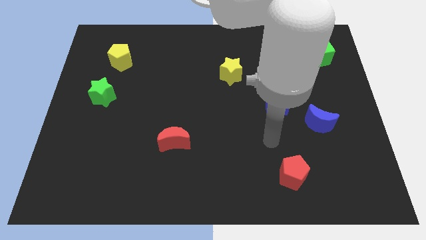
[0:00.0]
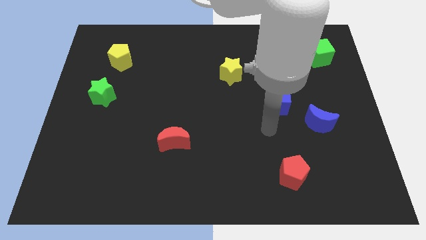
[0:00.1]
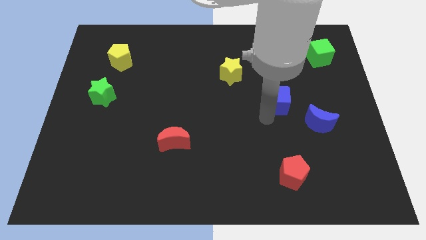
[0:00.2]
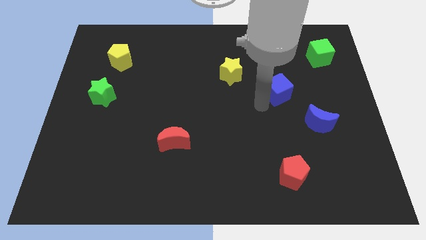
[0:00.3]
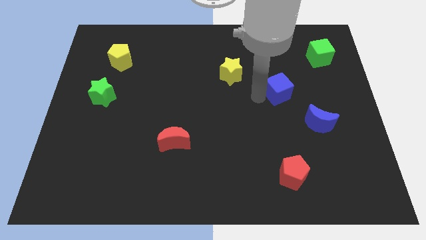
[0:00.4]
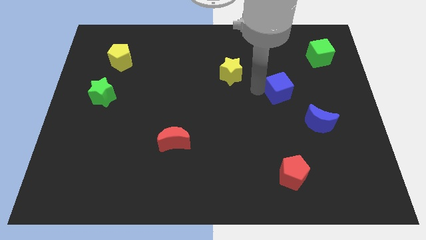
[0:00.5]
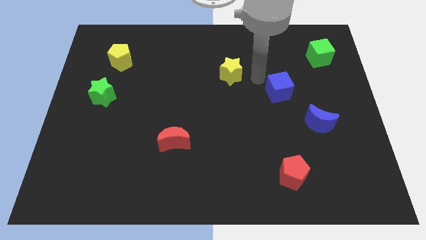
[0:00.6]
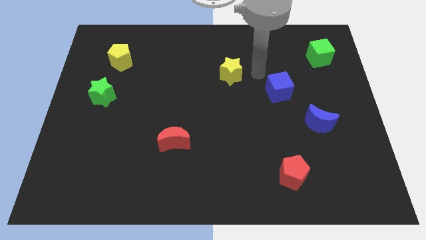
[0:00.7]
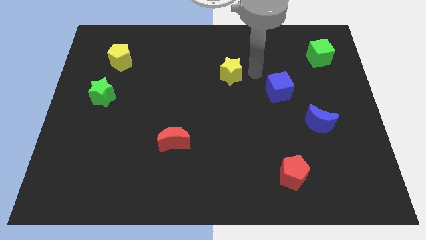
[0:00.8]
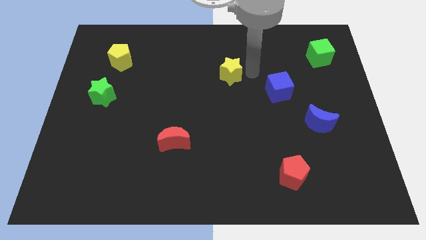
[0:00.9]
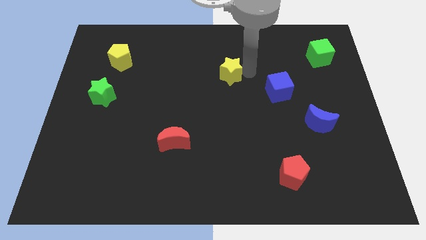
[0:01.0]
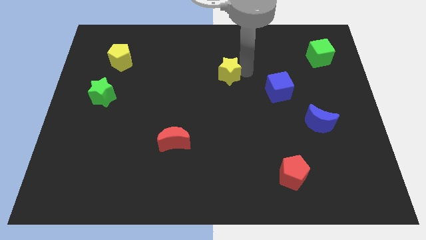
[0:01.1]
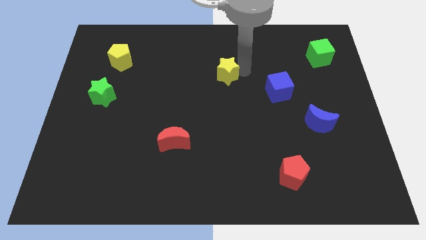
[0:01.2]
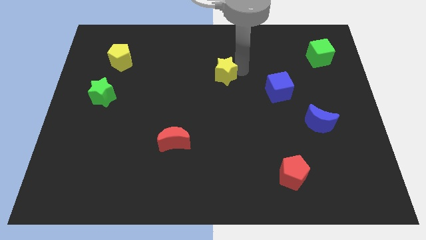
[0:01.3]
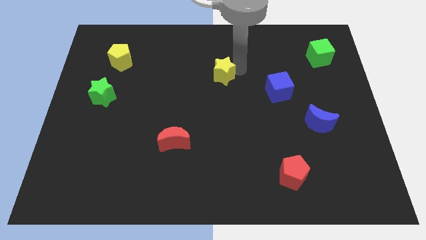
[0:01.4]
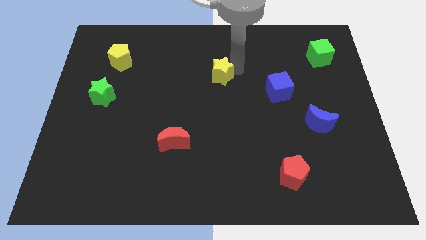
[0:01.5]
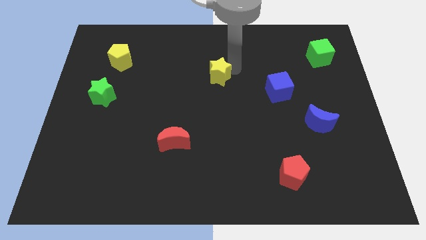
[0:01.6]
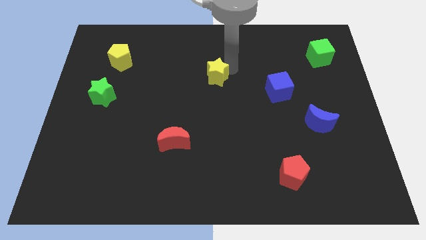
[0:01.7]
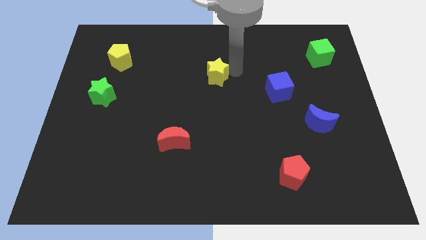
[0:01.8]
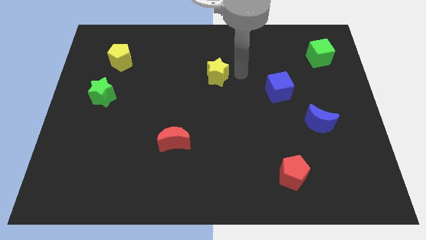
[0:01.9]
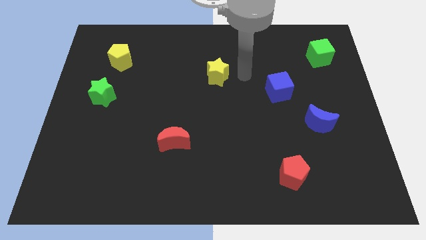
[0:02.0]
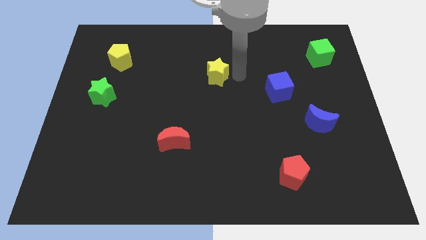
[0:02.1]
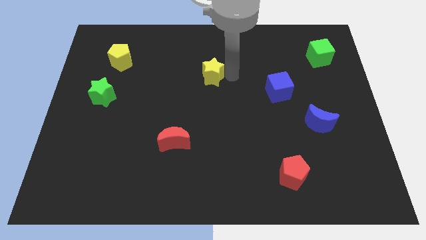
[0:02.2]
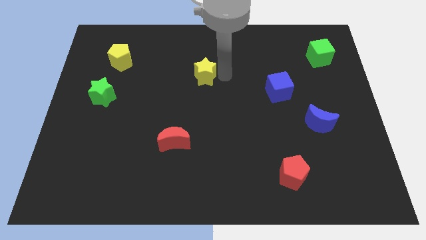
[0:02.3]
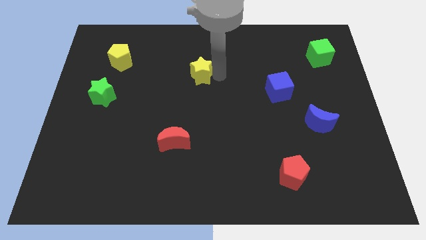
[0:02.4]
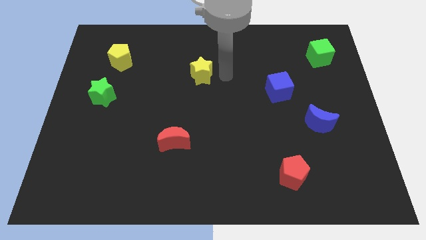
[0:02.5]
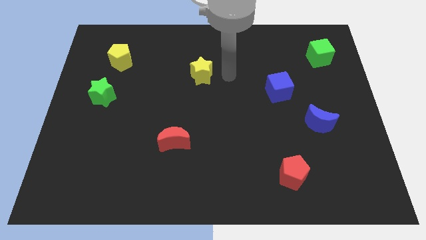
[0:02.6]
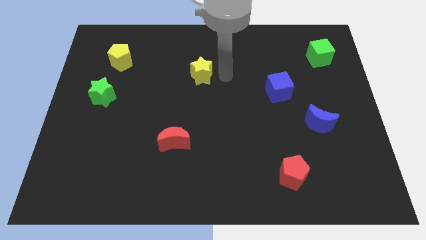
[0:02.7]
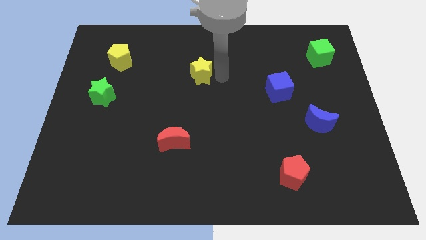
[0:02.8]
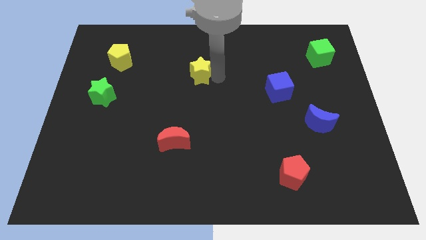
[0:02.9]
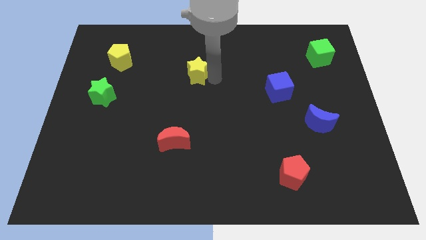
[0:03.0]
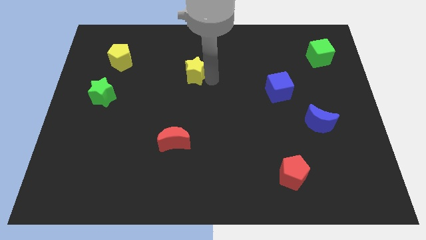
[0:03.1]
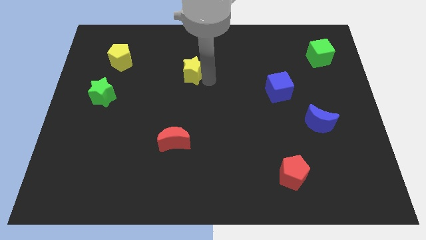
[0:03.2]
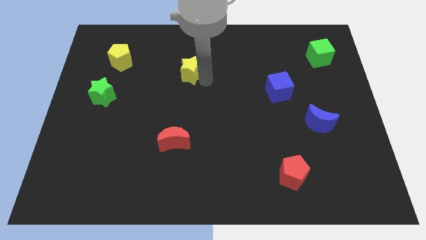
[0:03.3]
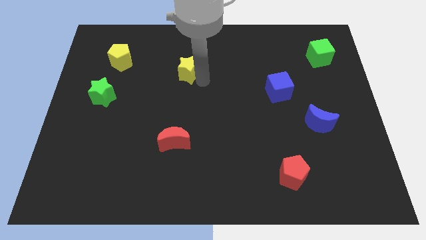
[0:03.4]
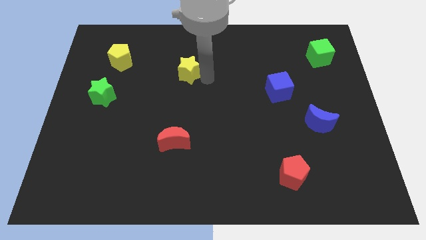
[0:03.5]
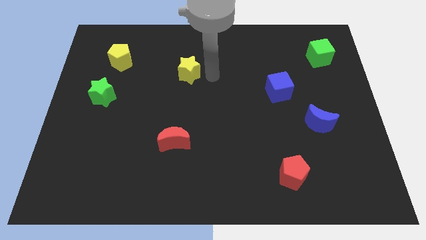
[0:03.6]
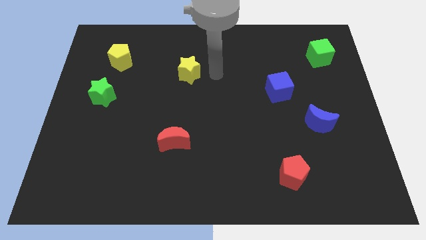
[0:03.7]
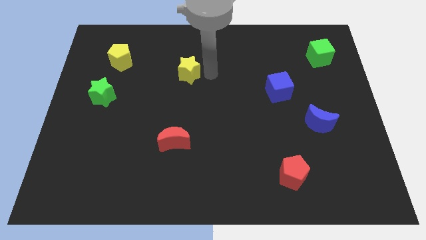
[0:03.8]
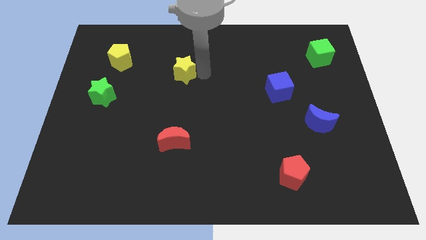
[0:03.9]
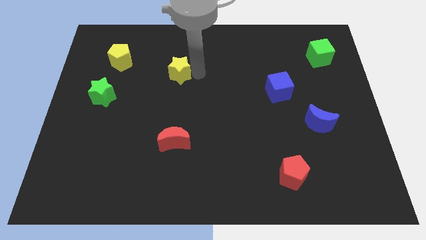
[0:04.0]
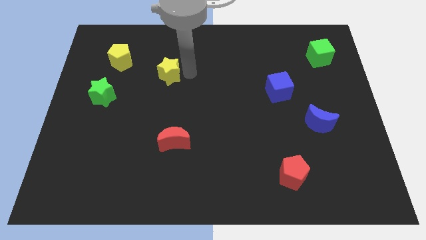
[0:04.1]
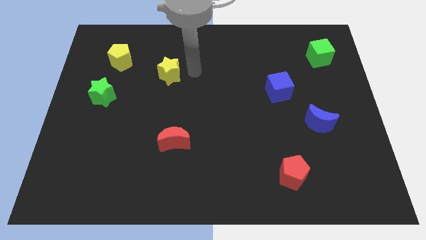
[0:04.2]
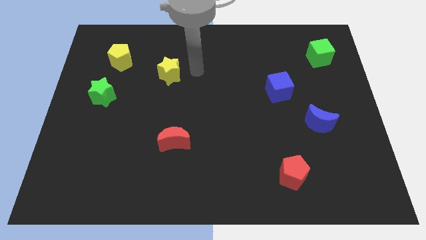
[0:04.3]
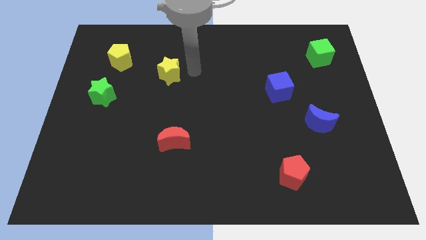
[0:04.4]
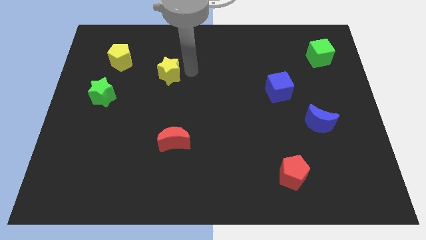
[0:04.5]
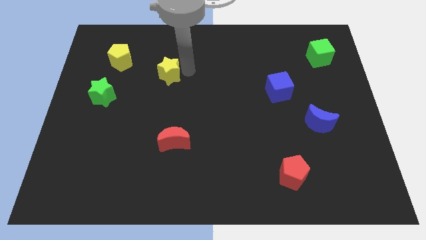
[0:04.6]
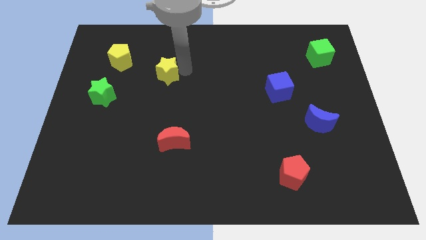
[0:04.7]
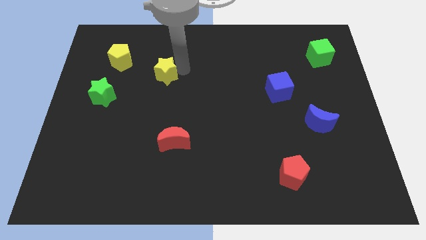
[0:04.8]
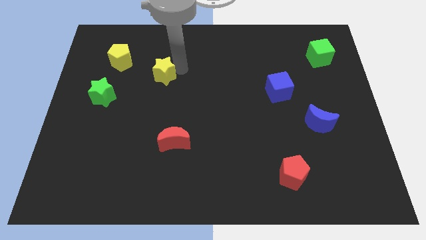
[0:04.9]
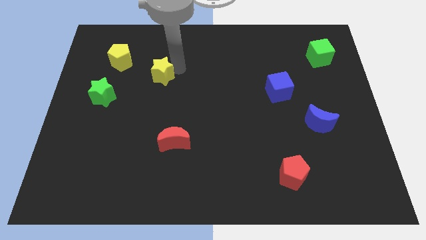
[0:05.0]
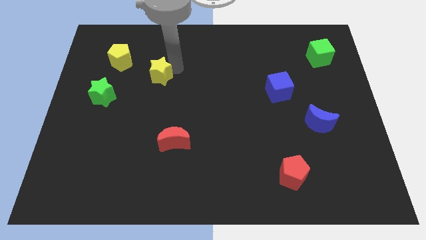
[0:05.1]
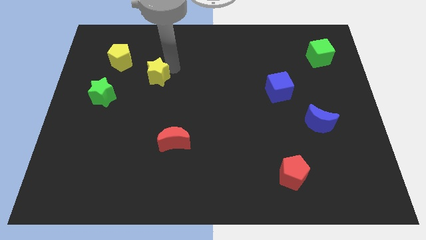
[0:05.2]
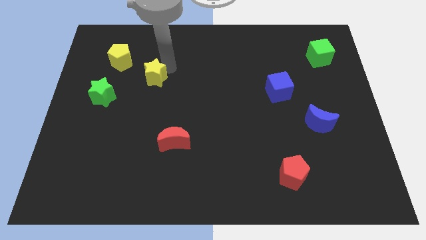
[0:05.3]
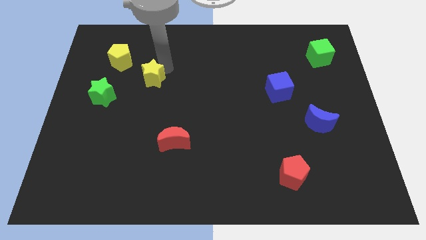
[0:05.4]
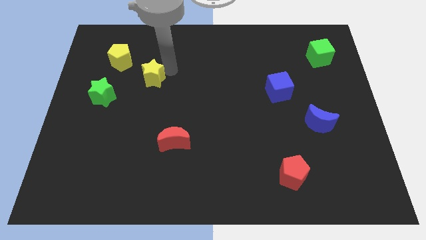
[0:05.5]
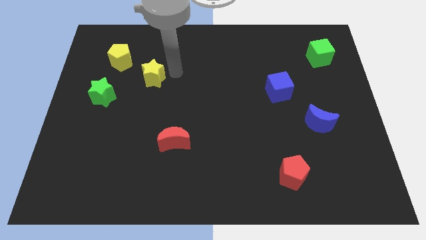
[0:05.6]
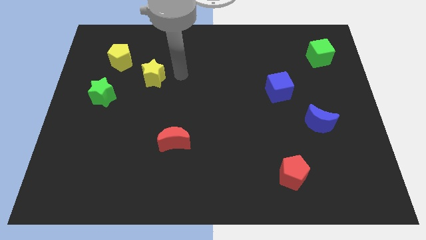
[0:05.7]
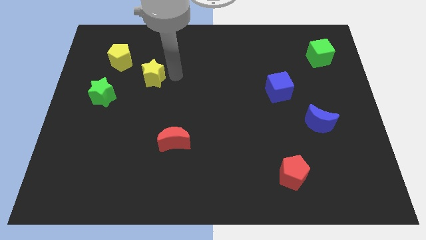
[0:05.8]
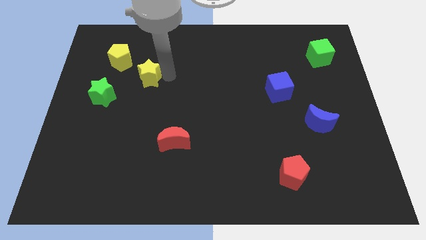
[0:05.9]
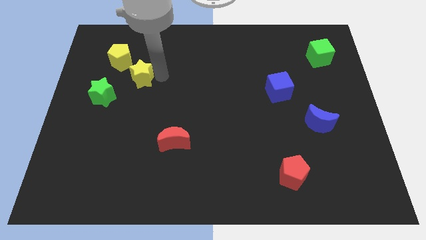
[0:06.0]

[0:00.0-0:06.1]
put the yellow star to the top right side of the green star
